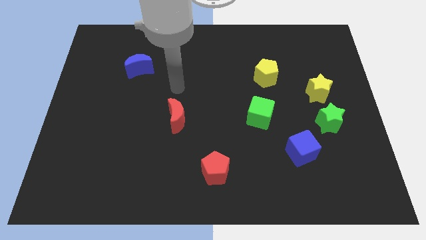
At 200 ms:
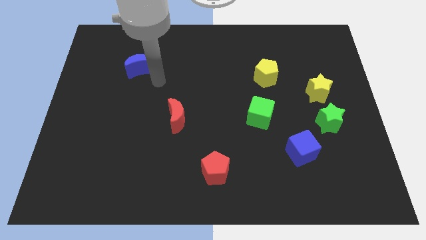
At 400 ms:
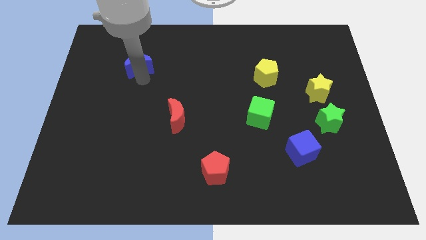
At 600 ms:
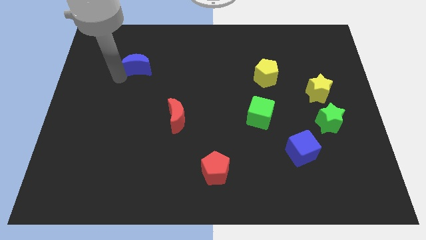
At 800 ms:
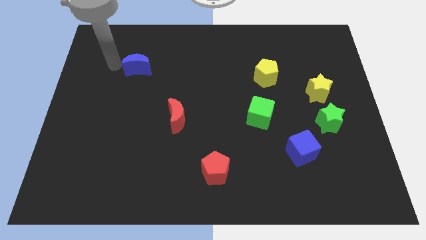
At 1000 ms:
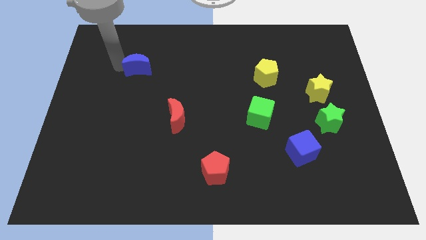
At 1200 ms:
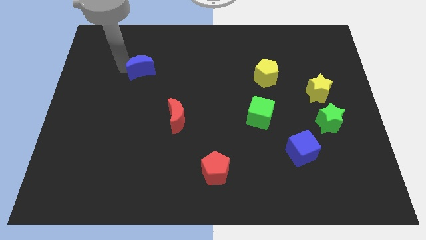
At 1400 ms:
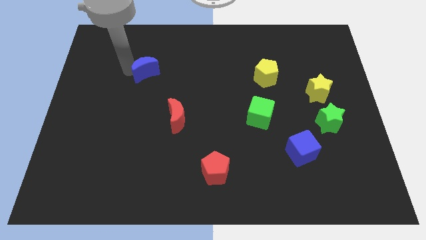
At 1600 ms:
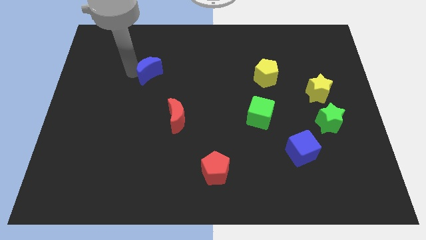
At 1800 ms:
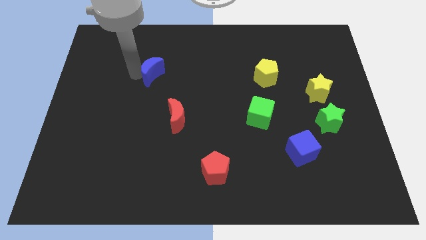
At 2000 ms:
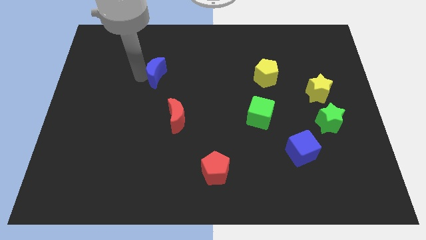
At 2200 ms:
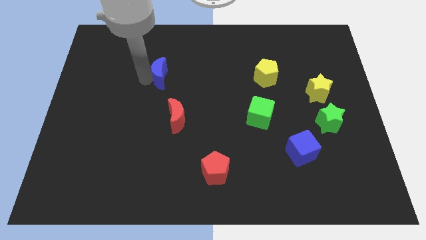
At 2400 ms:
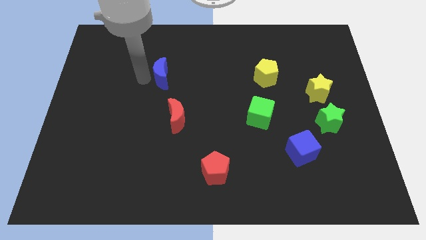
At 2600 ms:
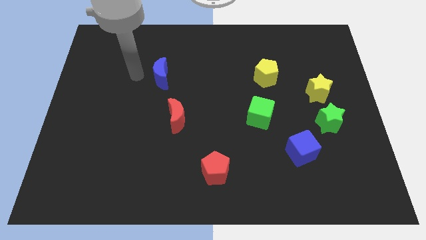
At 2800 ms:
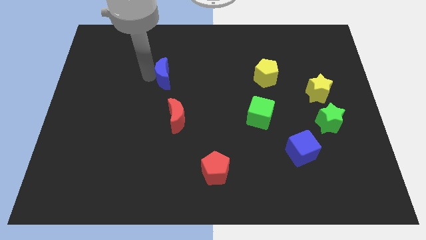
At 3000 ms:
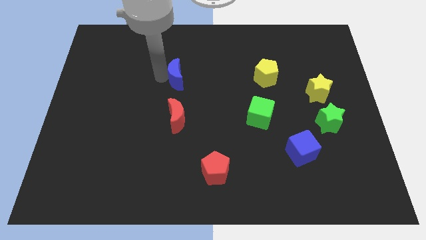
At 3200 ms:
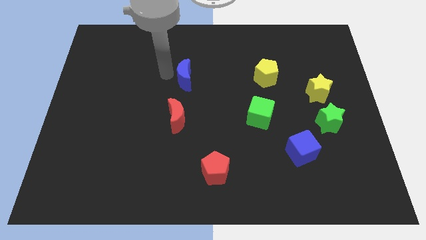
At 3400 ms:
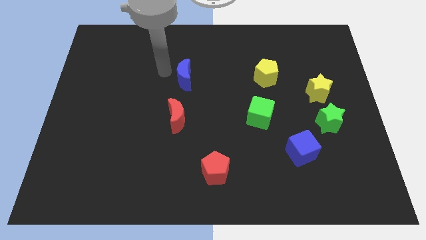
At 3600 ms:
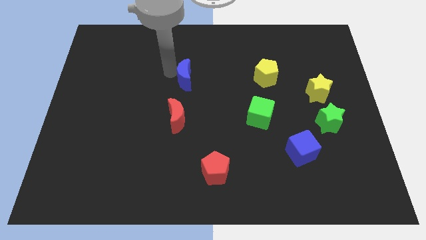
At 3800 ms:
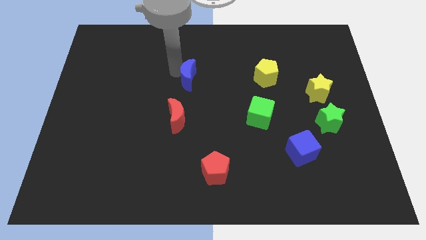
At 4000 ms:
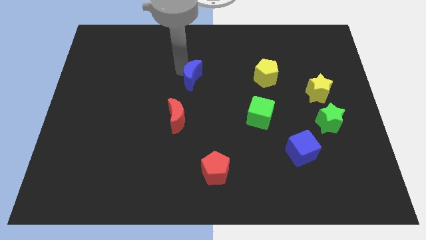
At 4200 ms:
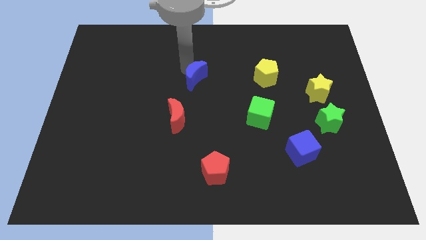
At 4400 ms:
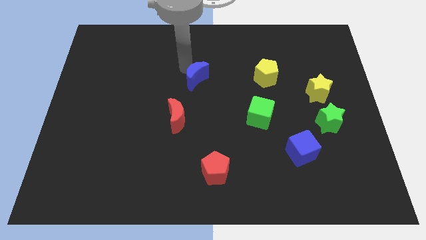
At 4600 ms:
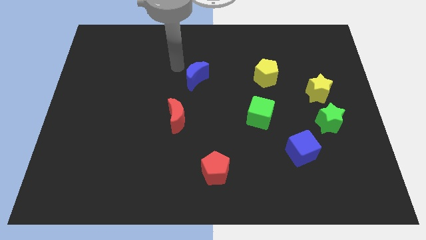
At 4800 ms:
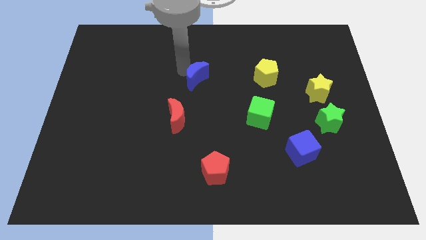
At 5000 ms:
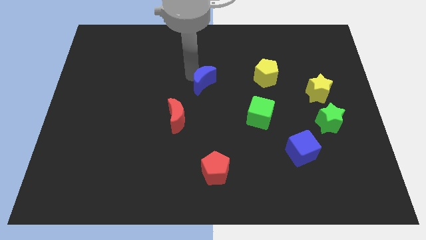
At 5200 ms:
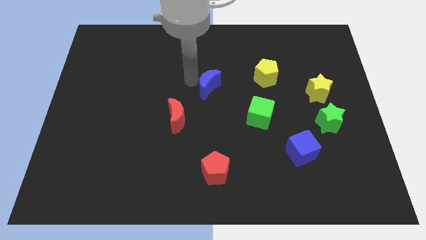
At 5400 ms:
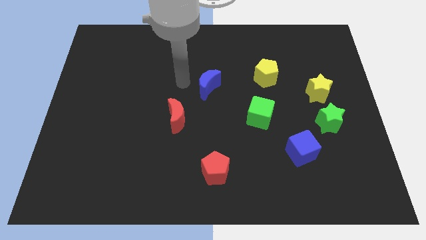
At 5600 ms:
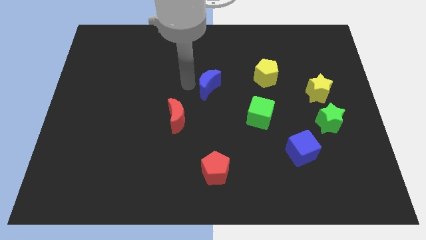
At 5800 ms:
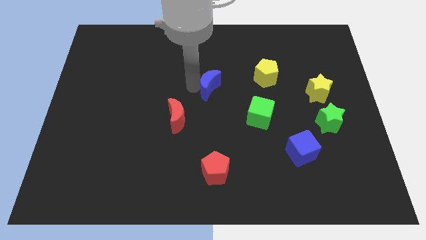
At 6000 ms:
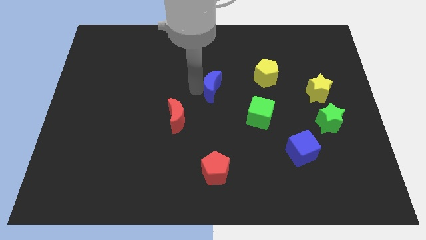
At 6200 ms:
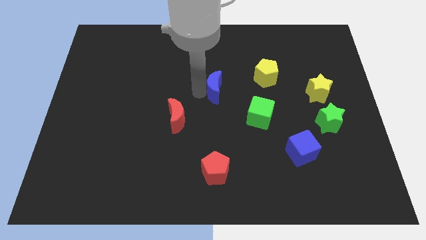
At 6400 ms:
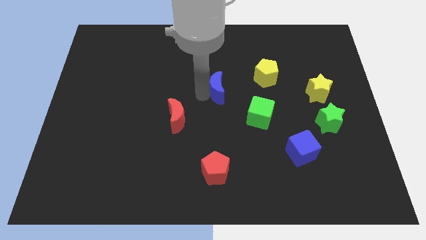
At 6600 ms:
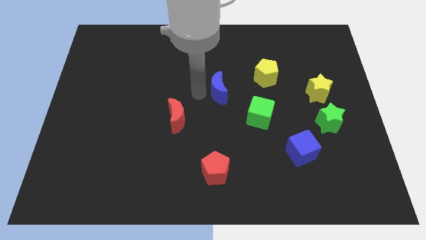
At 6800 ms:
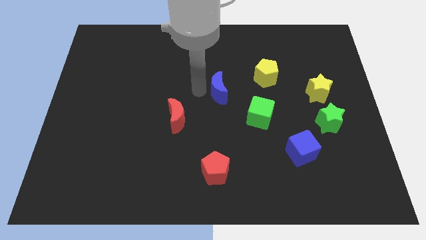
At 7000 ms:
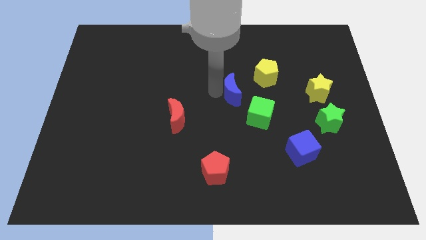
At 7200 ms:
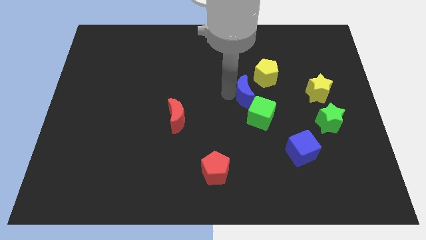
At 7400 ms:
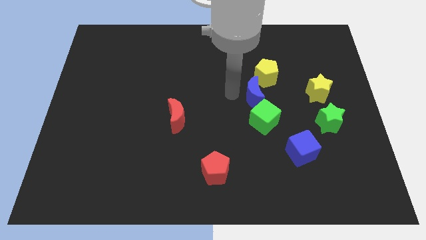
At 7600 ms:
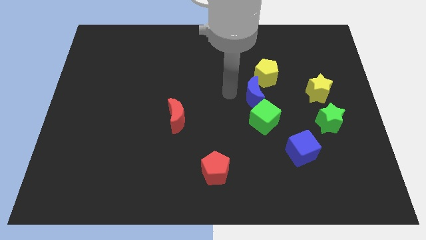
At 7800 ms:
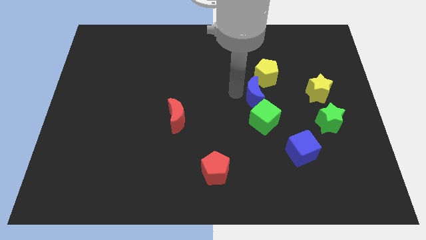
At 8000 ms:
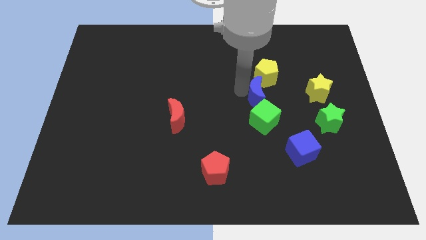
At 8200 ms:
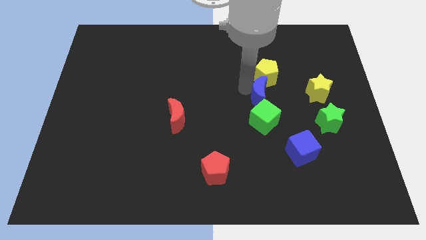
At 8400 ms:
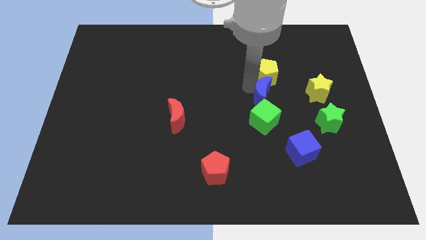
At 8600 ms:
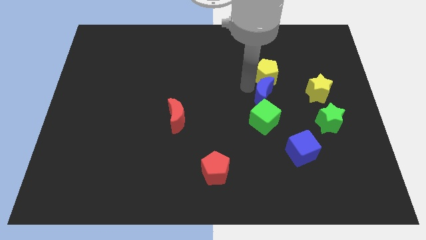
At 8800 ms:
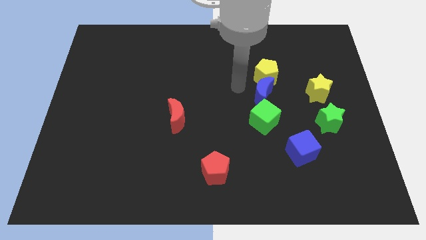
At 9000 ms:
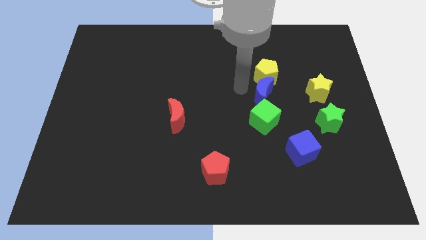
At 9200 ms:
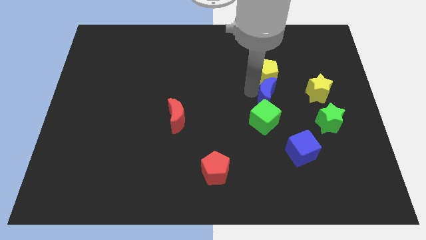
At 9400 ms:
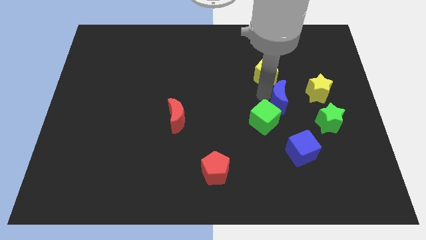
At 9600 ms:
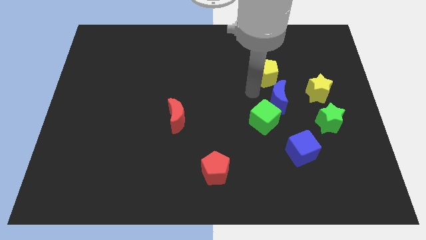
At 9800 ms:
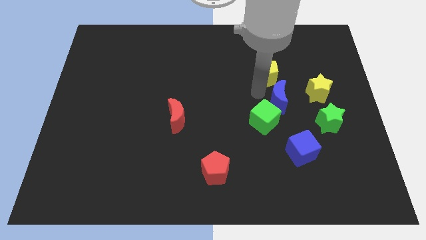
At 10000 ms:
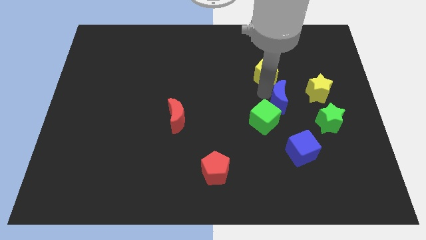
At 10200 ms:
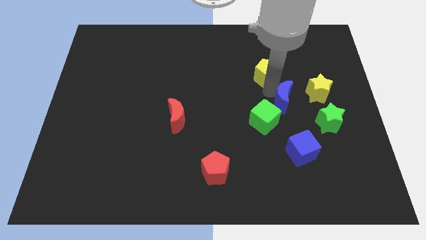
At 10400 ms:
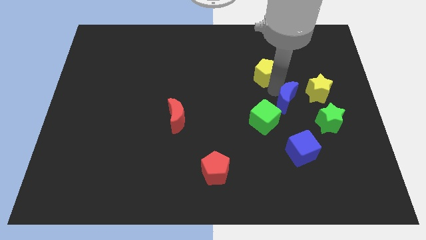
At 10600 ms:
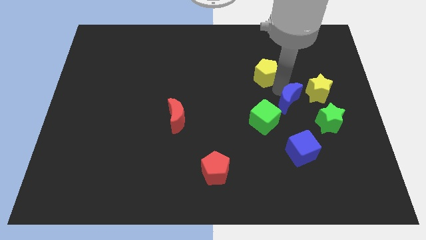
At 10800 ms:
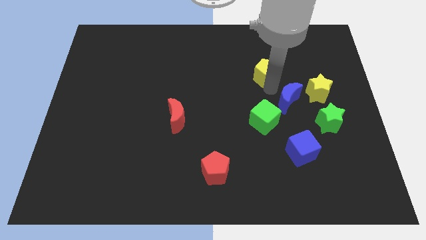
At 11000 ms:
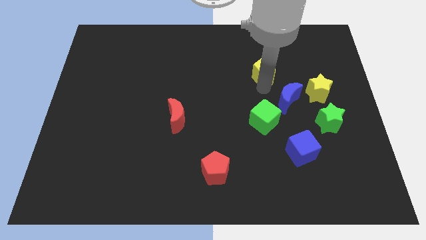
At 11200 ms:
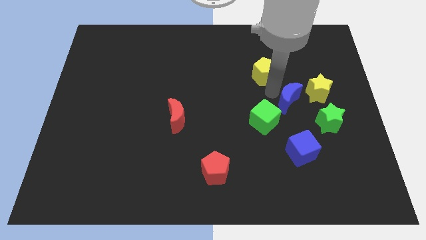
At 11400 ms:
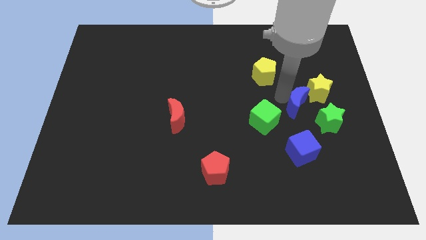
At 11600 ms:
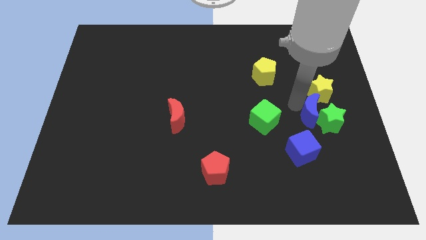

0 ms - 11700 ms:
slide the blue moon towards the green star

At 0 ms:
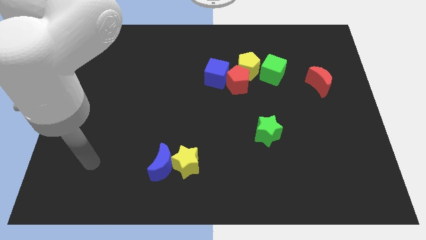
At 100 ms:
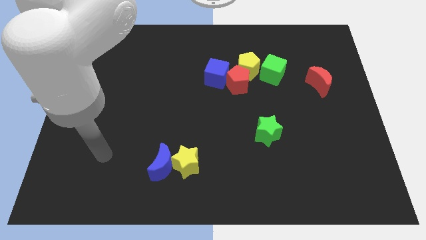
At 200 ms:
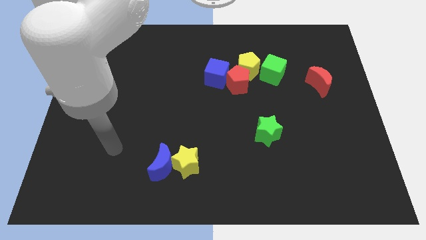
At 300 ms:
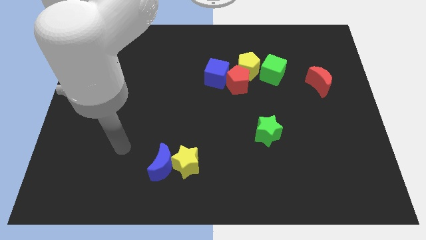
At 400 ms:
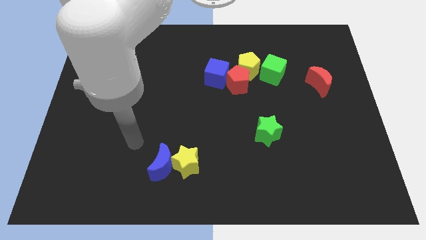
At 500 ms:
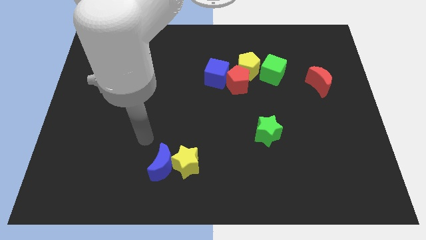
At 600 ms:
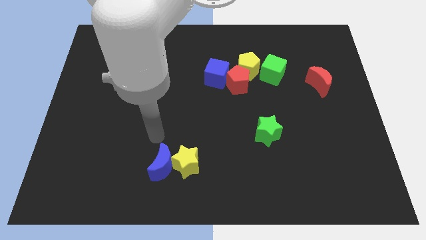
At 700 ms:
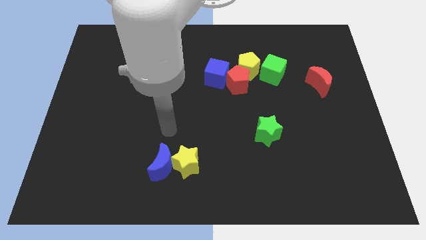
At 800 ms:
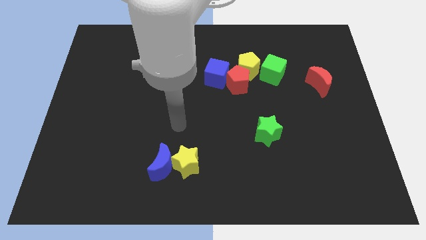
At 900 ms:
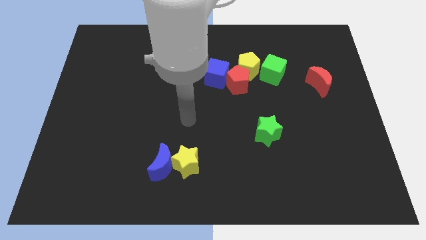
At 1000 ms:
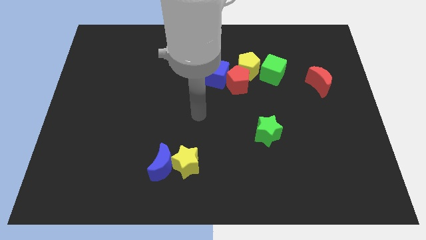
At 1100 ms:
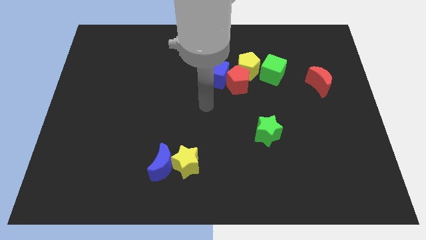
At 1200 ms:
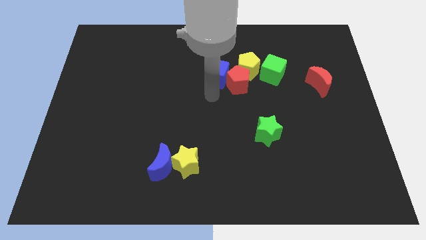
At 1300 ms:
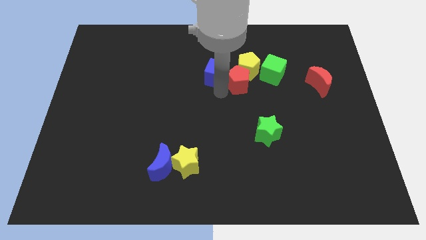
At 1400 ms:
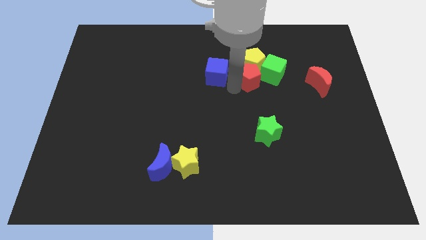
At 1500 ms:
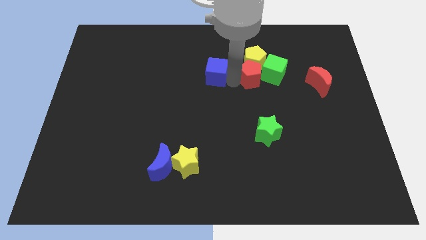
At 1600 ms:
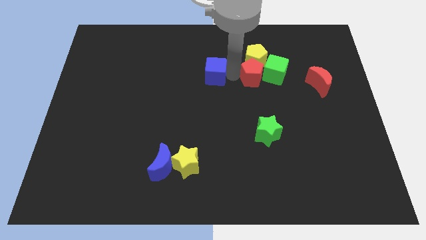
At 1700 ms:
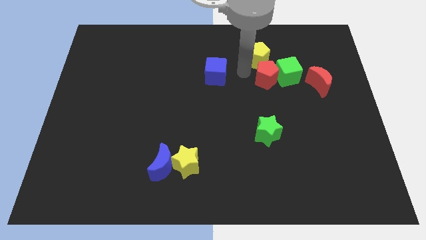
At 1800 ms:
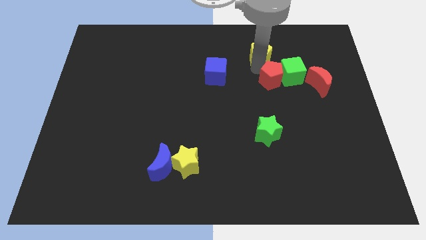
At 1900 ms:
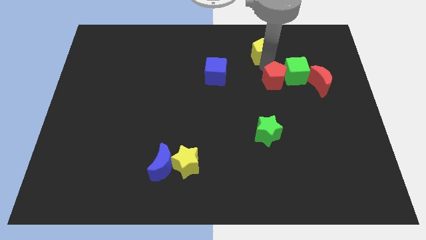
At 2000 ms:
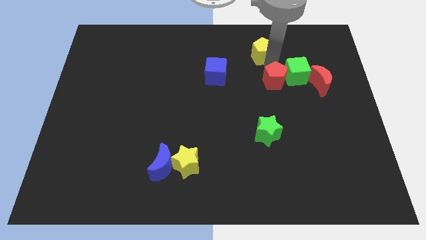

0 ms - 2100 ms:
put the green cube to the red moon
